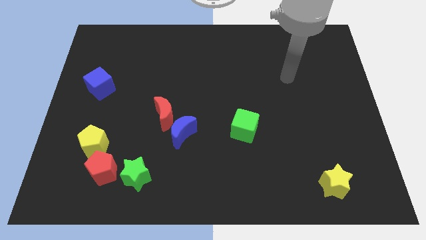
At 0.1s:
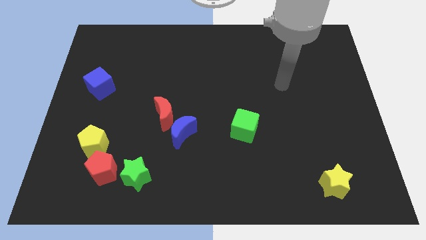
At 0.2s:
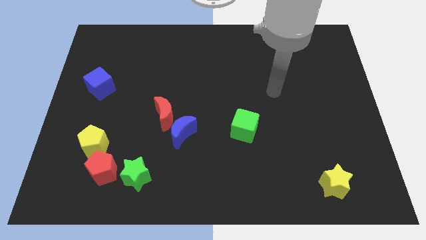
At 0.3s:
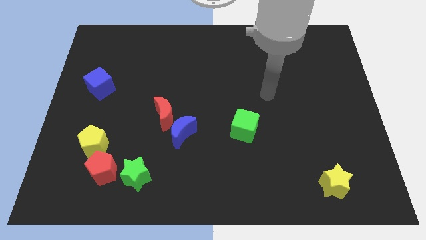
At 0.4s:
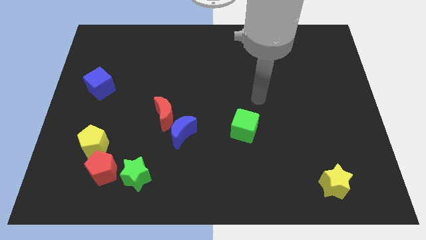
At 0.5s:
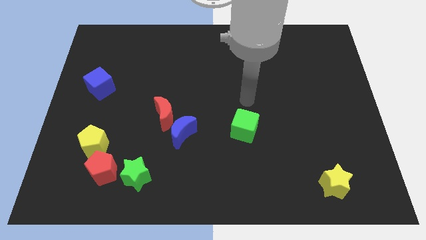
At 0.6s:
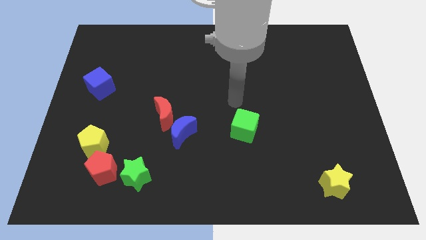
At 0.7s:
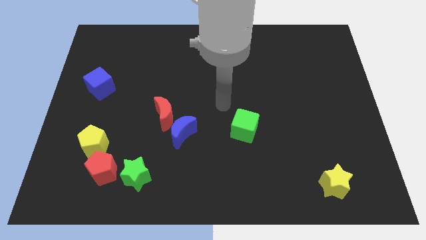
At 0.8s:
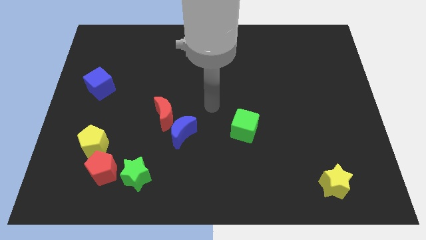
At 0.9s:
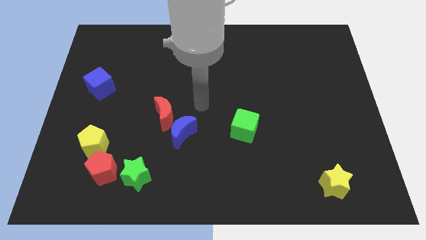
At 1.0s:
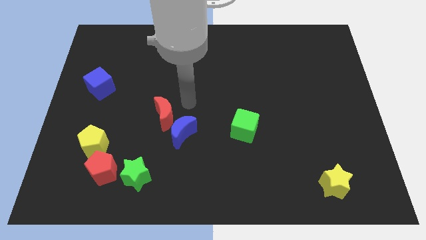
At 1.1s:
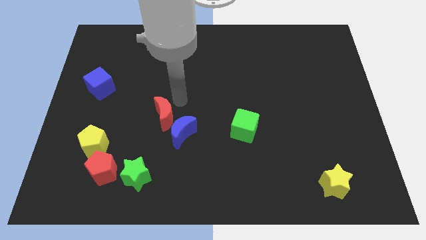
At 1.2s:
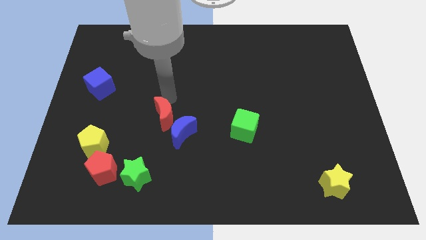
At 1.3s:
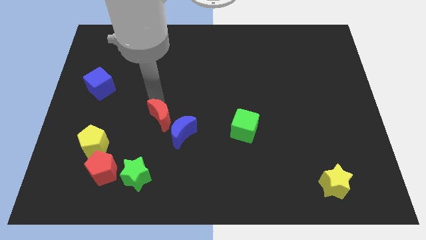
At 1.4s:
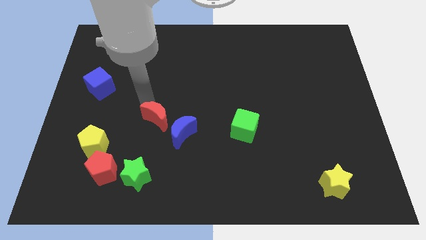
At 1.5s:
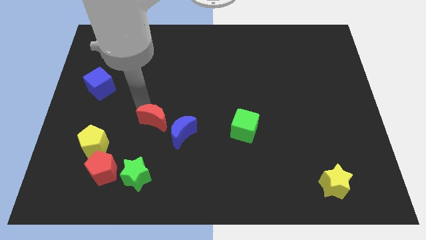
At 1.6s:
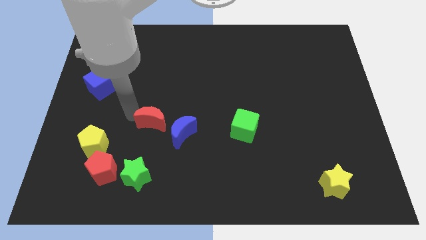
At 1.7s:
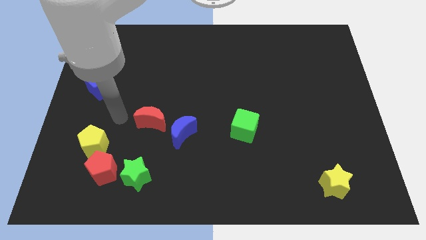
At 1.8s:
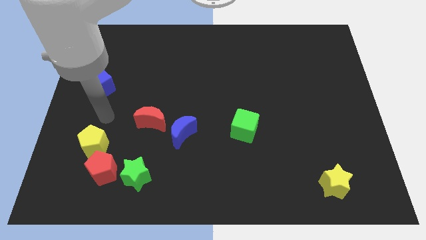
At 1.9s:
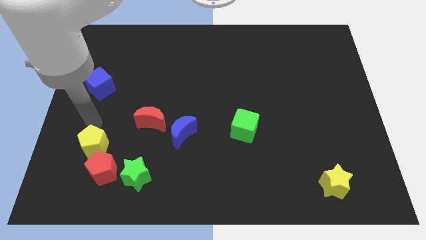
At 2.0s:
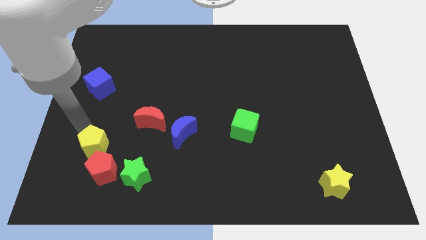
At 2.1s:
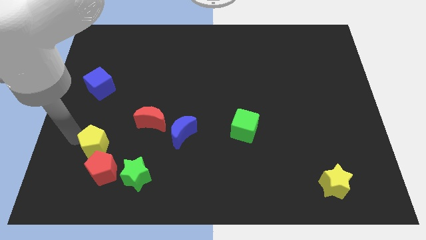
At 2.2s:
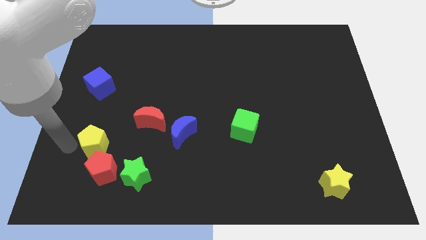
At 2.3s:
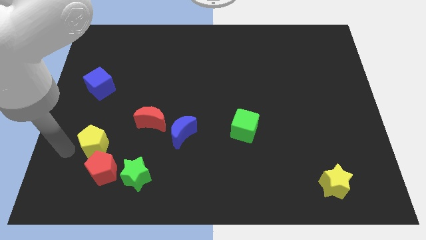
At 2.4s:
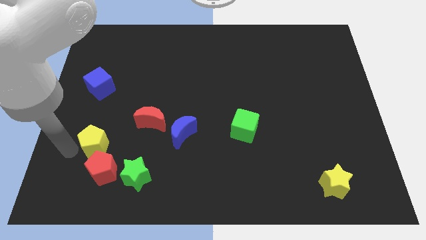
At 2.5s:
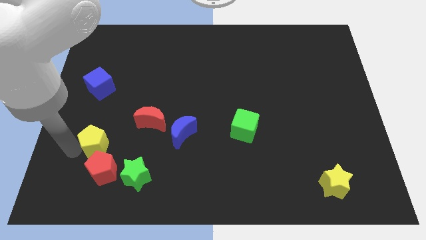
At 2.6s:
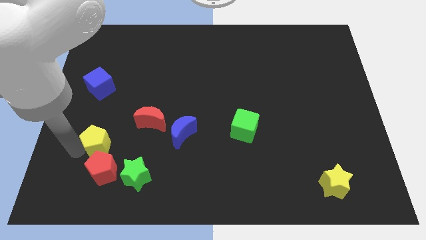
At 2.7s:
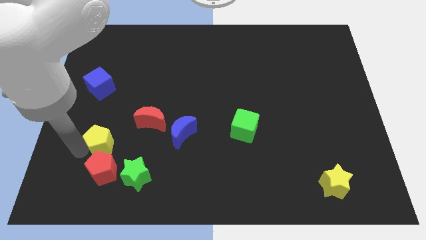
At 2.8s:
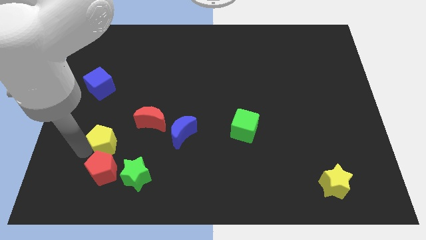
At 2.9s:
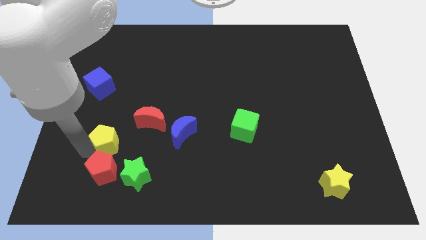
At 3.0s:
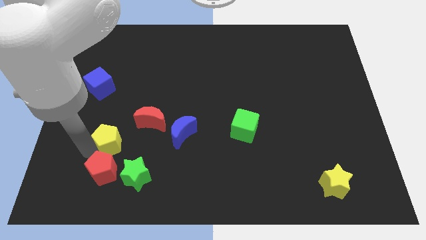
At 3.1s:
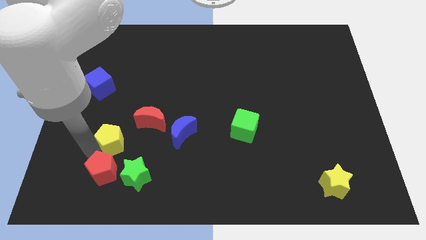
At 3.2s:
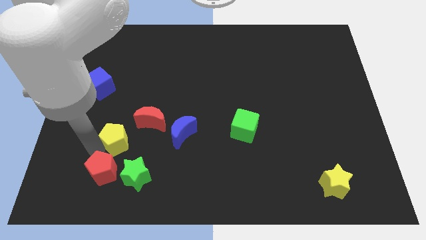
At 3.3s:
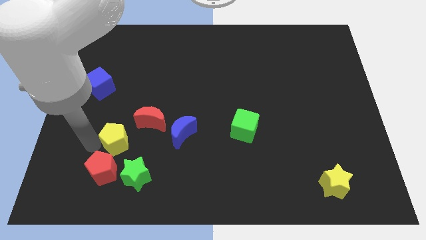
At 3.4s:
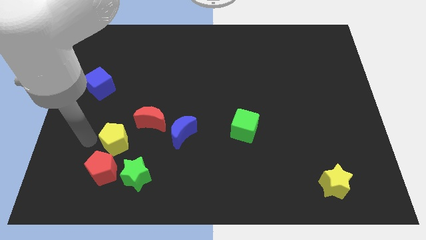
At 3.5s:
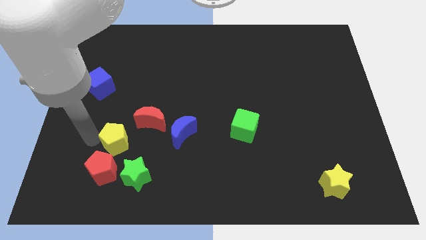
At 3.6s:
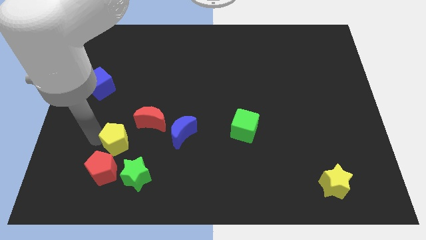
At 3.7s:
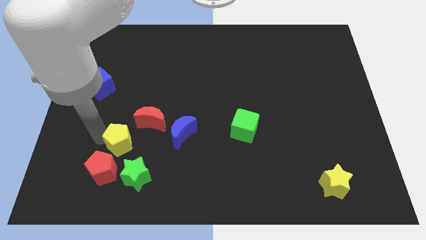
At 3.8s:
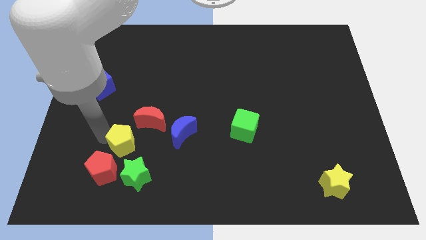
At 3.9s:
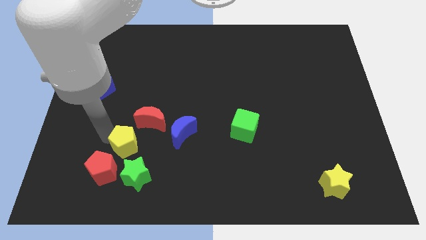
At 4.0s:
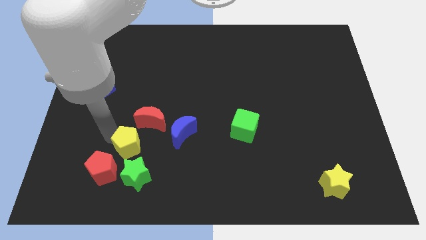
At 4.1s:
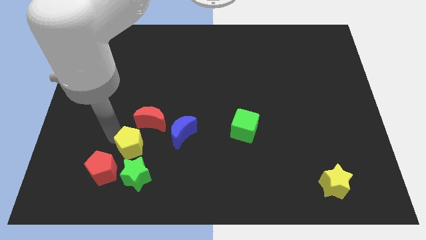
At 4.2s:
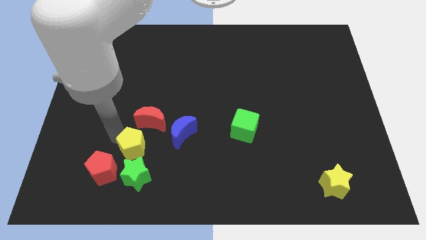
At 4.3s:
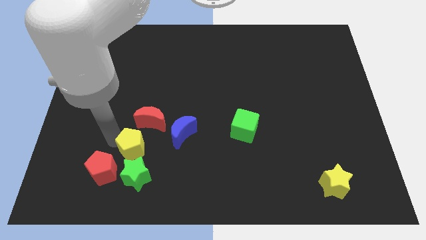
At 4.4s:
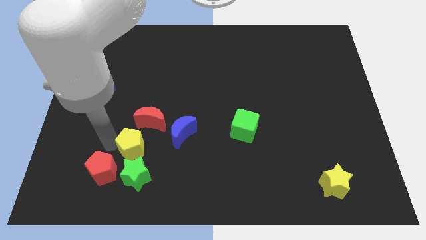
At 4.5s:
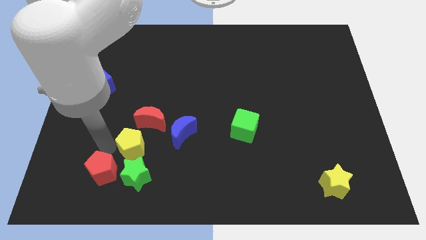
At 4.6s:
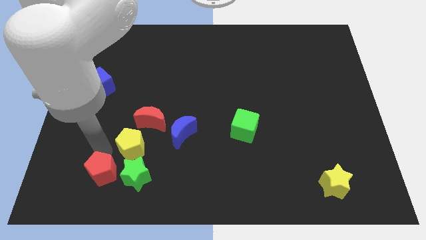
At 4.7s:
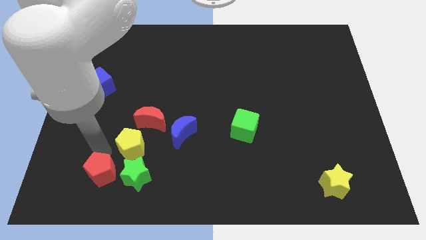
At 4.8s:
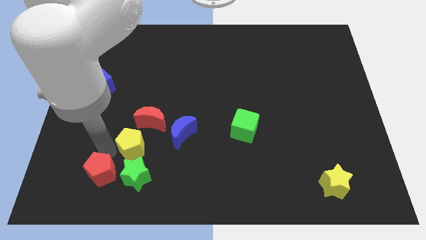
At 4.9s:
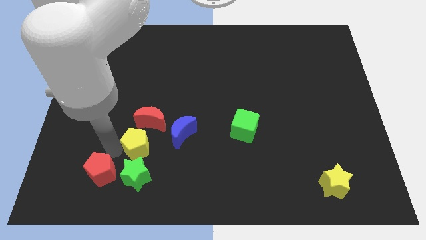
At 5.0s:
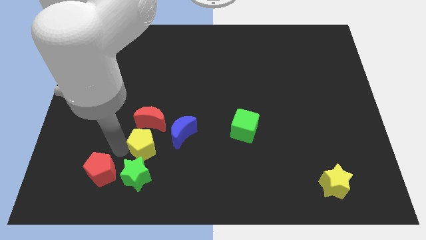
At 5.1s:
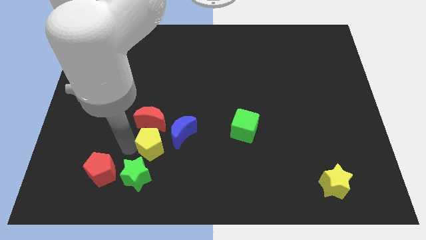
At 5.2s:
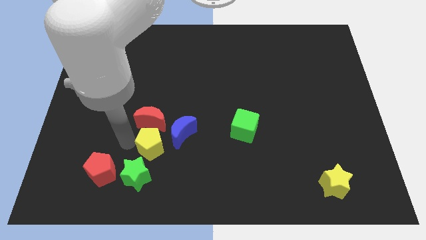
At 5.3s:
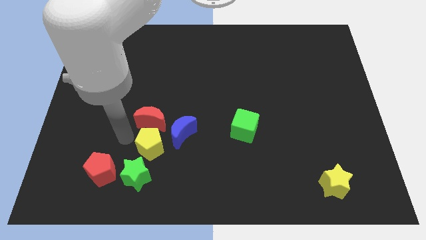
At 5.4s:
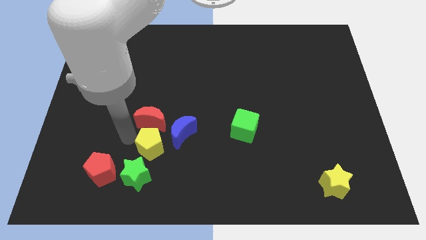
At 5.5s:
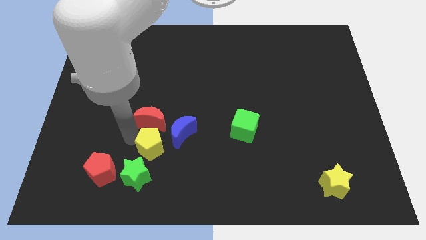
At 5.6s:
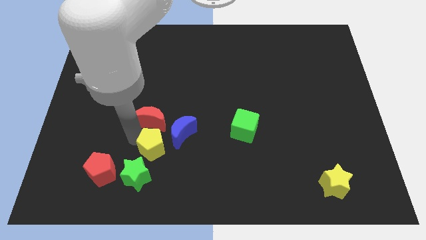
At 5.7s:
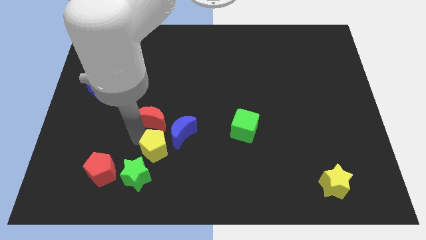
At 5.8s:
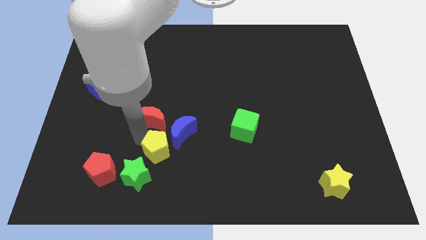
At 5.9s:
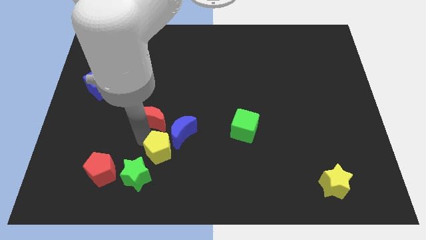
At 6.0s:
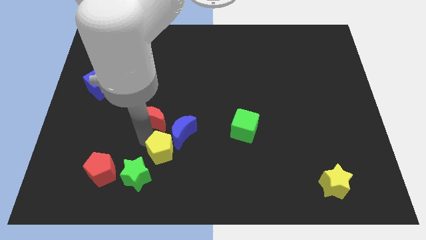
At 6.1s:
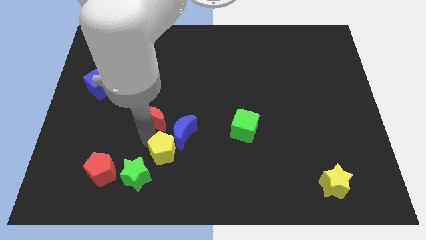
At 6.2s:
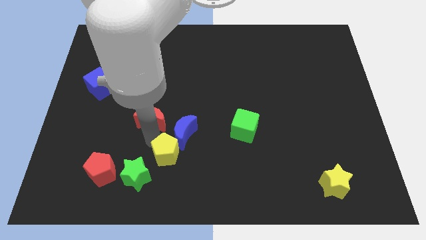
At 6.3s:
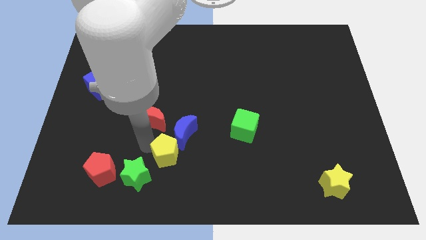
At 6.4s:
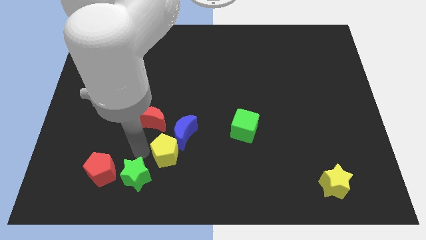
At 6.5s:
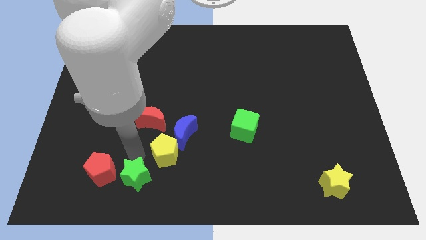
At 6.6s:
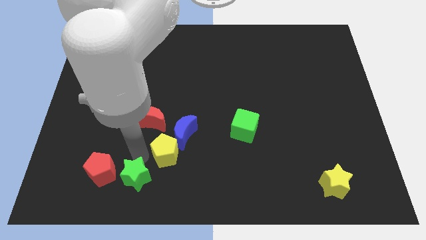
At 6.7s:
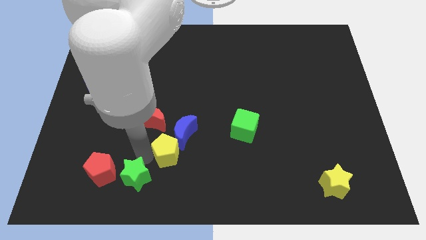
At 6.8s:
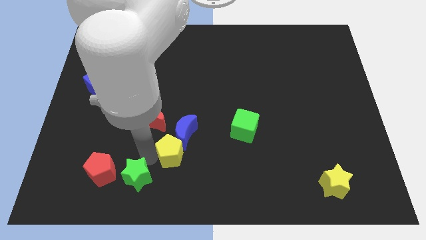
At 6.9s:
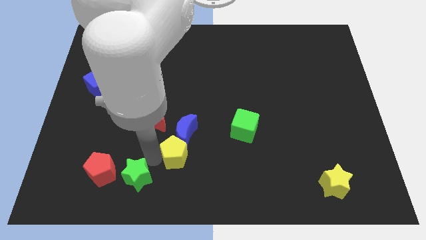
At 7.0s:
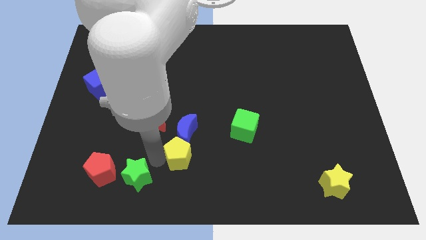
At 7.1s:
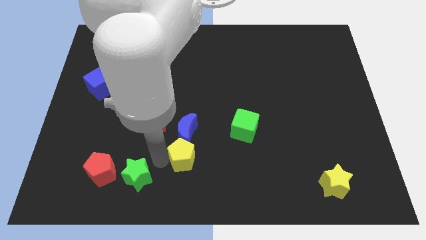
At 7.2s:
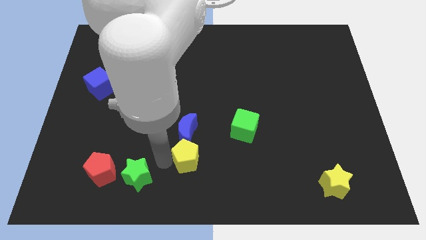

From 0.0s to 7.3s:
move the yellow pentagon right

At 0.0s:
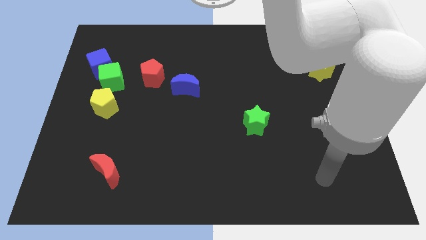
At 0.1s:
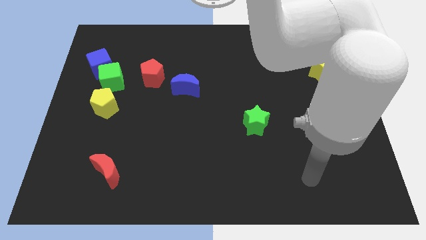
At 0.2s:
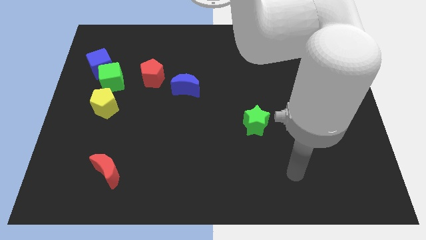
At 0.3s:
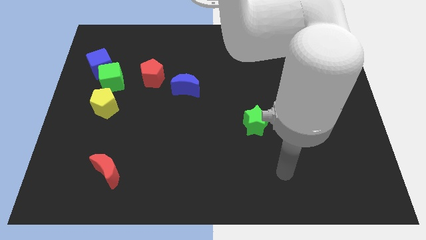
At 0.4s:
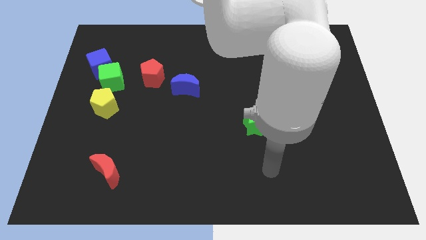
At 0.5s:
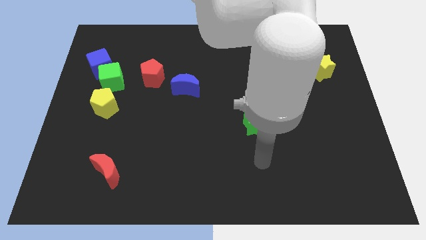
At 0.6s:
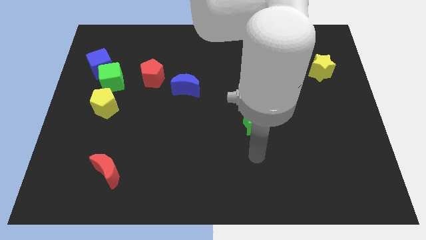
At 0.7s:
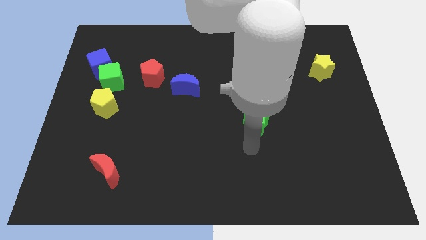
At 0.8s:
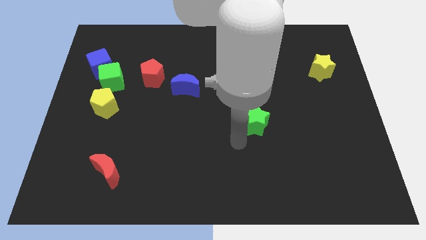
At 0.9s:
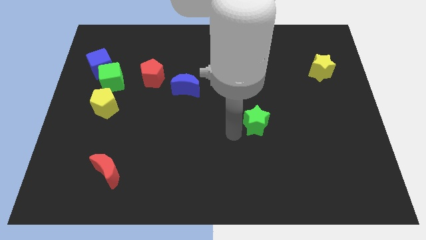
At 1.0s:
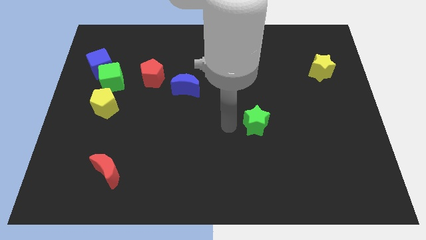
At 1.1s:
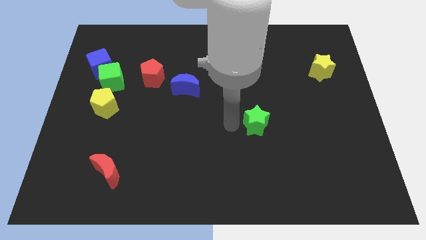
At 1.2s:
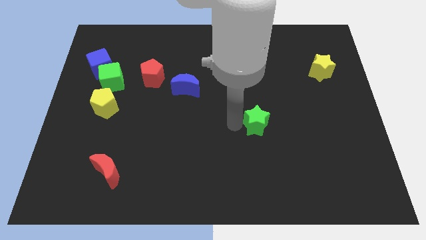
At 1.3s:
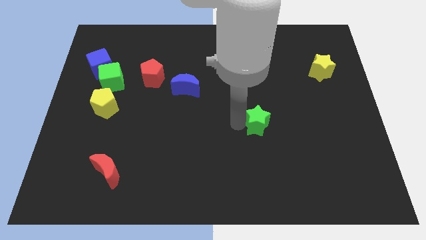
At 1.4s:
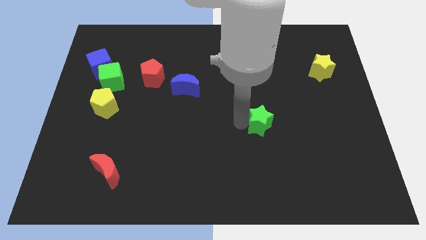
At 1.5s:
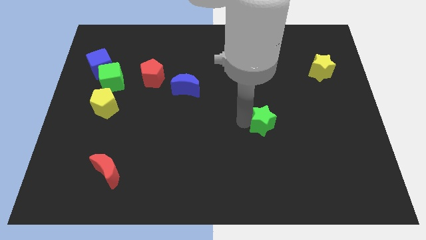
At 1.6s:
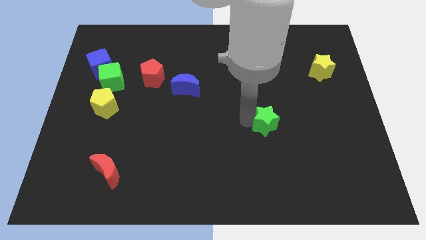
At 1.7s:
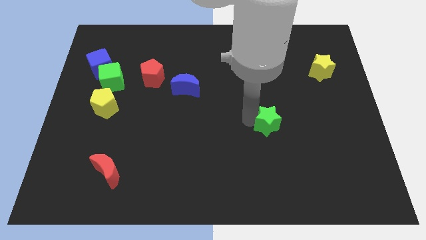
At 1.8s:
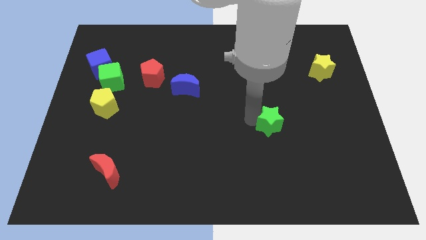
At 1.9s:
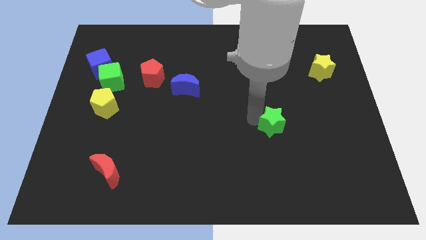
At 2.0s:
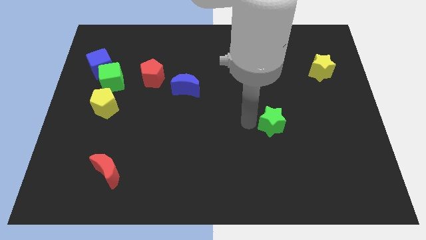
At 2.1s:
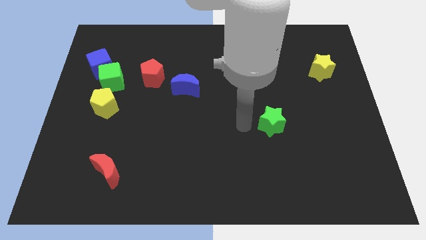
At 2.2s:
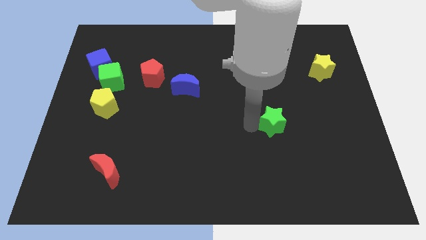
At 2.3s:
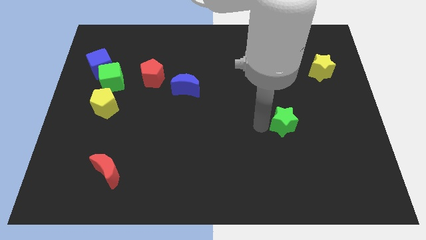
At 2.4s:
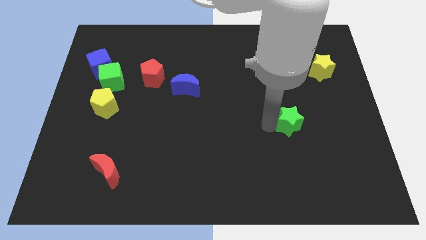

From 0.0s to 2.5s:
slide the green star to the right slightly
